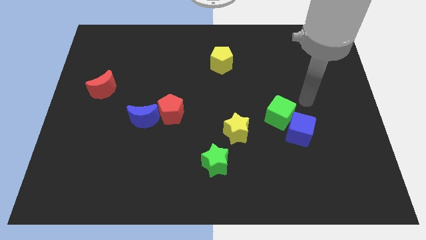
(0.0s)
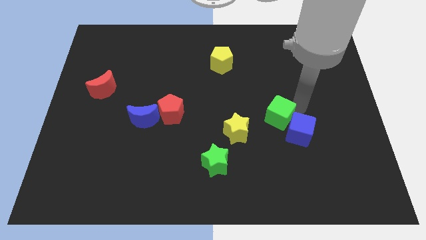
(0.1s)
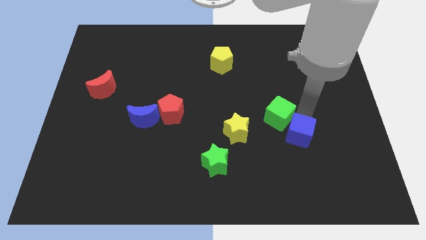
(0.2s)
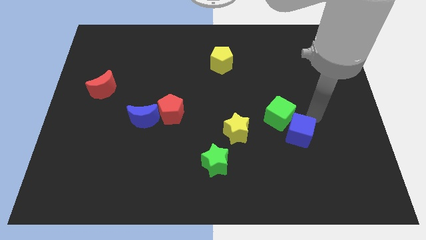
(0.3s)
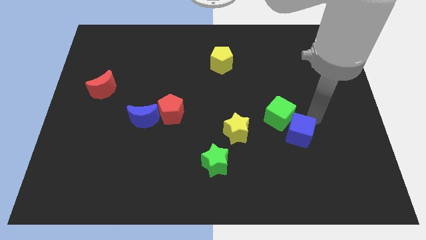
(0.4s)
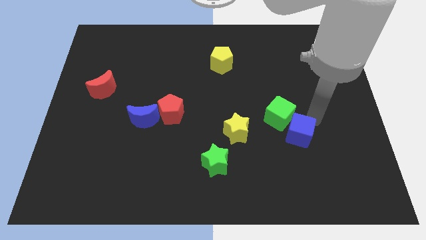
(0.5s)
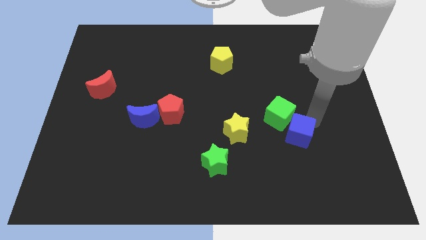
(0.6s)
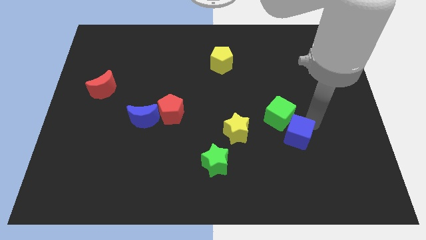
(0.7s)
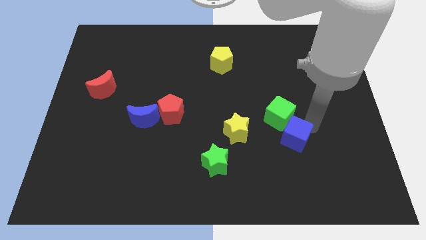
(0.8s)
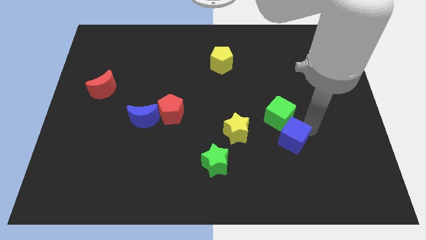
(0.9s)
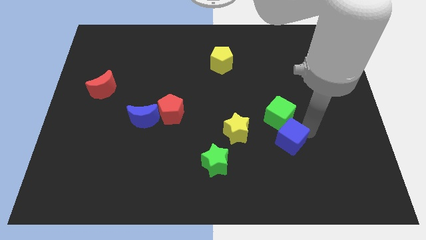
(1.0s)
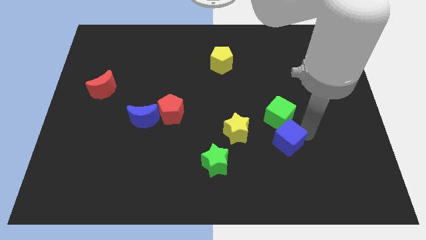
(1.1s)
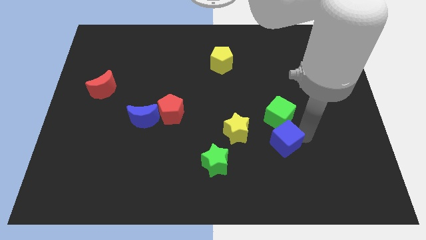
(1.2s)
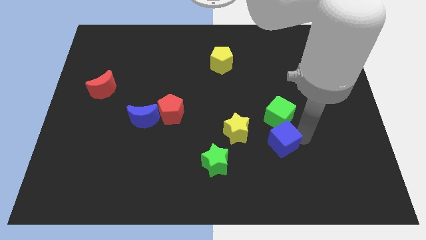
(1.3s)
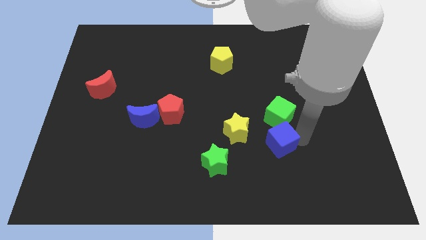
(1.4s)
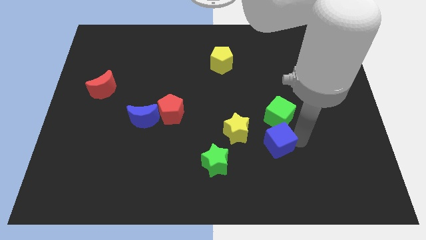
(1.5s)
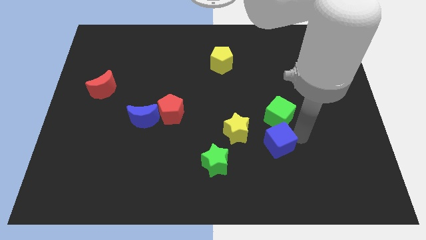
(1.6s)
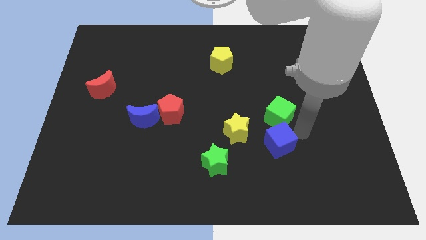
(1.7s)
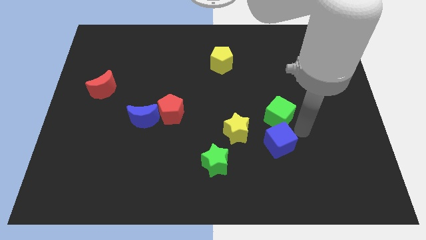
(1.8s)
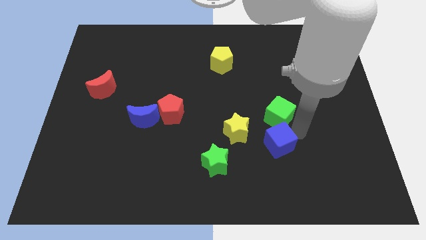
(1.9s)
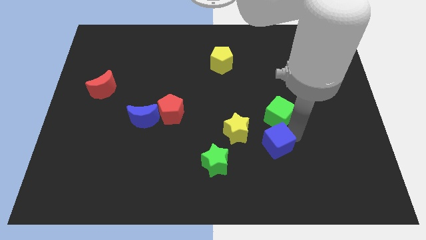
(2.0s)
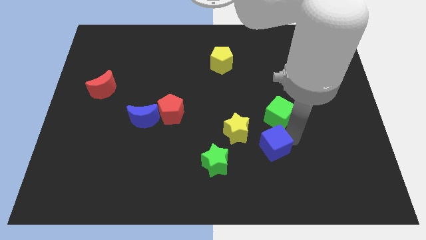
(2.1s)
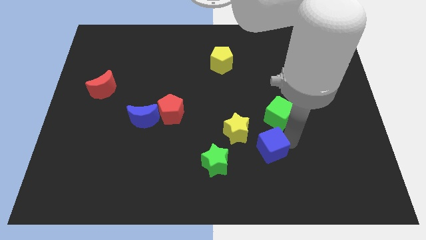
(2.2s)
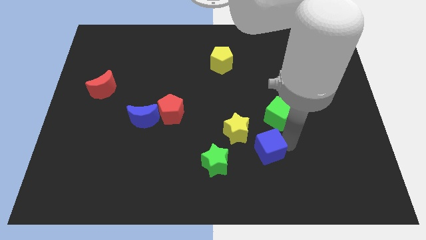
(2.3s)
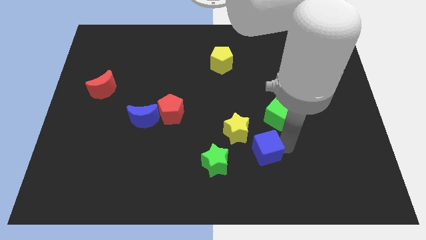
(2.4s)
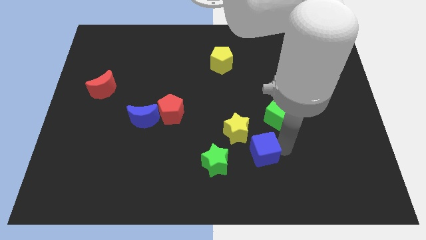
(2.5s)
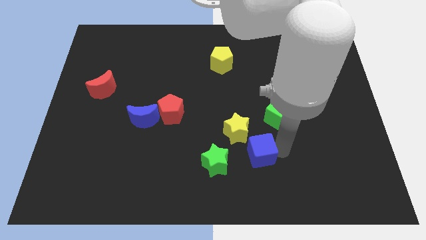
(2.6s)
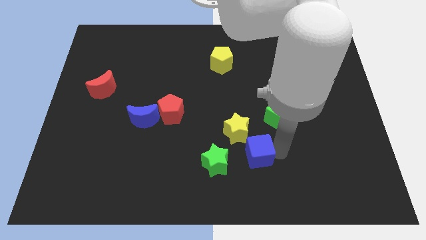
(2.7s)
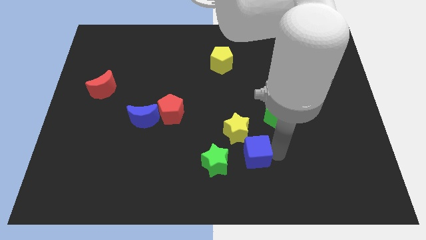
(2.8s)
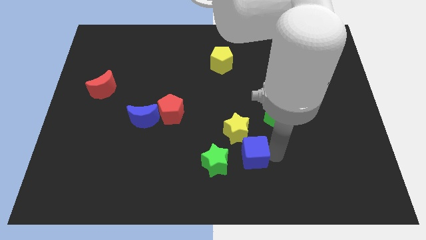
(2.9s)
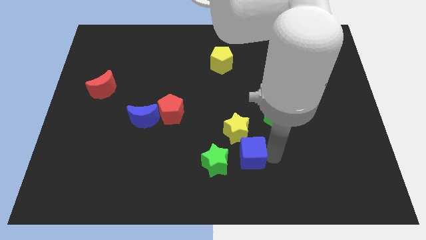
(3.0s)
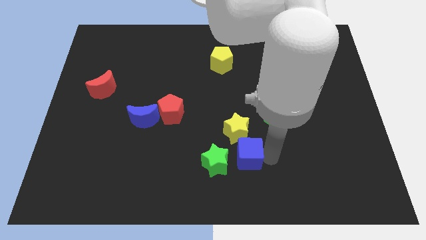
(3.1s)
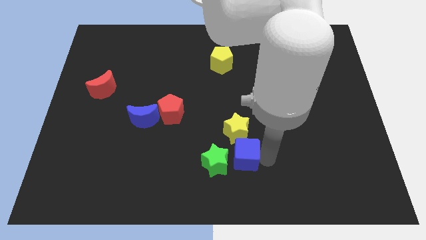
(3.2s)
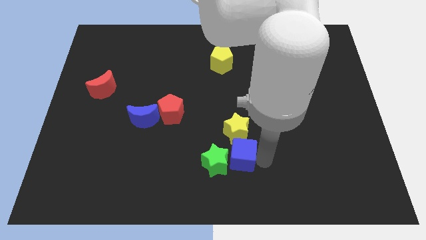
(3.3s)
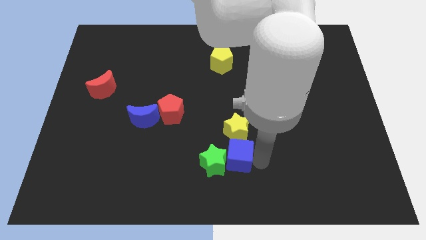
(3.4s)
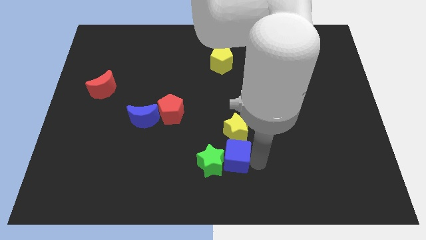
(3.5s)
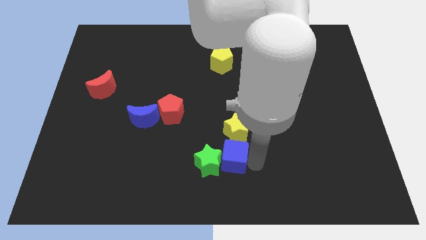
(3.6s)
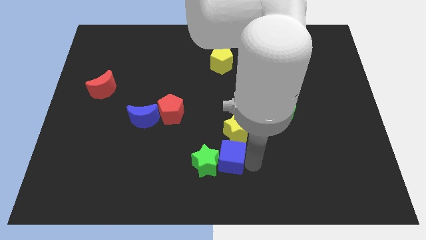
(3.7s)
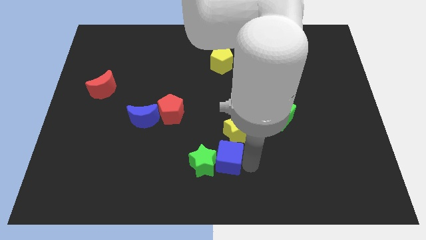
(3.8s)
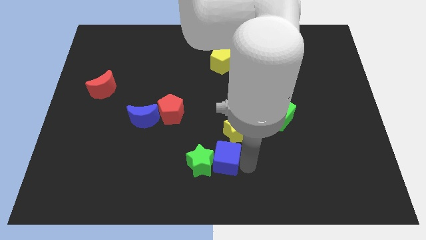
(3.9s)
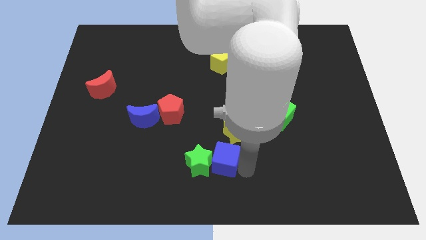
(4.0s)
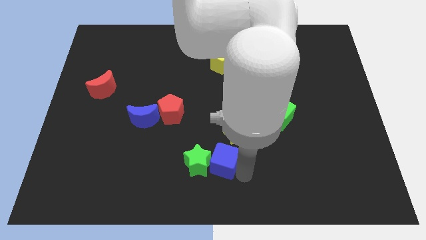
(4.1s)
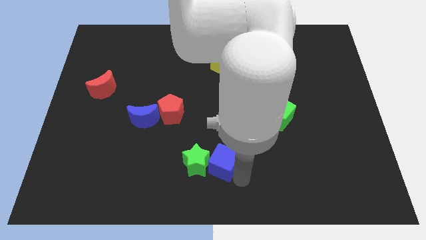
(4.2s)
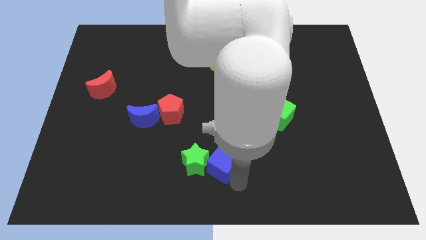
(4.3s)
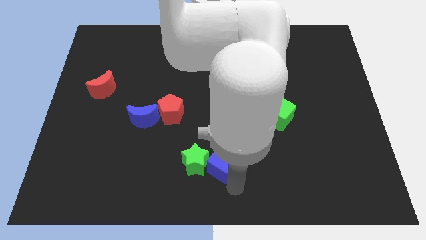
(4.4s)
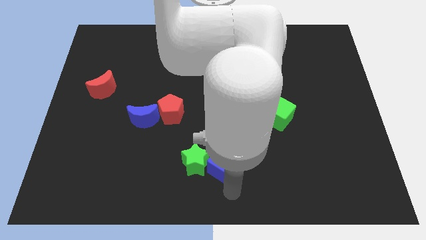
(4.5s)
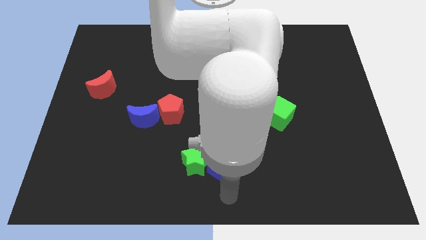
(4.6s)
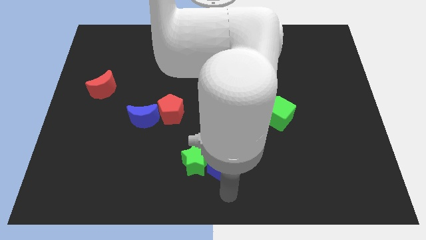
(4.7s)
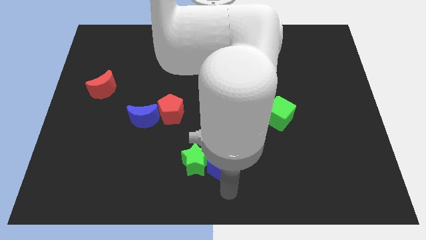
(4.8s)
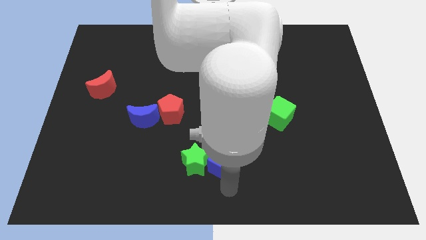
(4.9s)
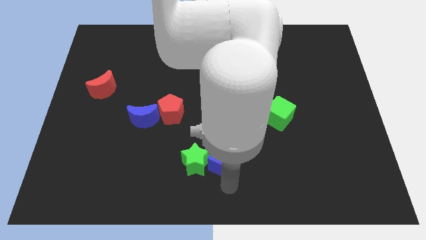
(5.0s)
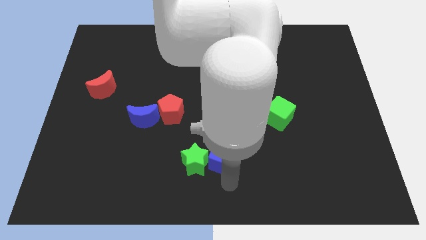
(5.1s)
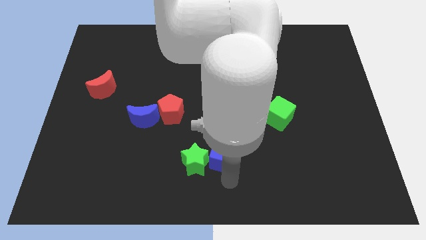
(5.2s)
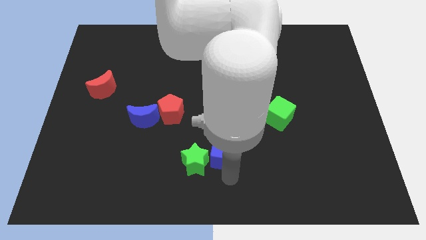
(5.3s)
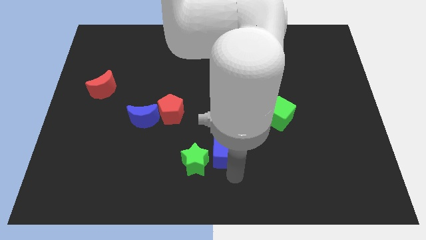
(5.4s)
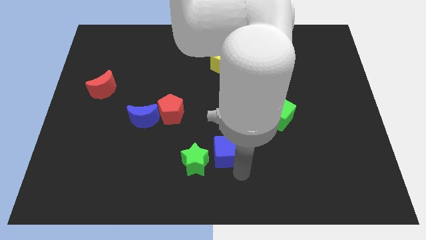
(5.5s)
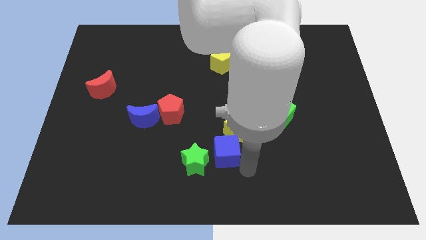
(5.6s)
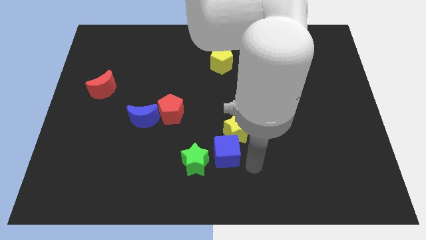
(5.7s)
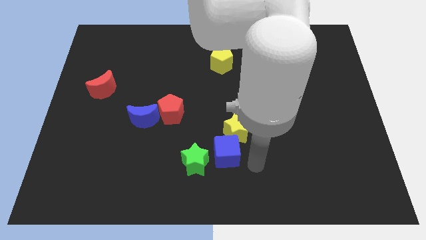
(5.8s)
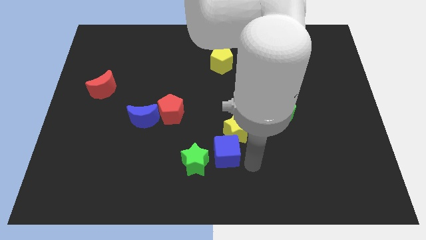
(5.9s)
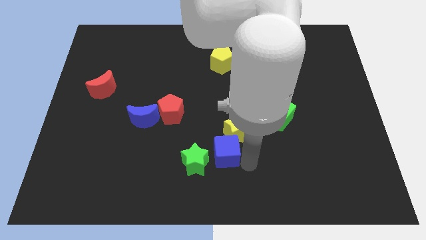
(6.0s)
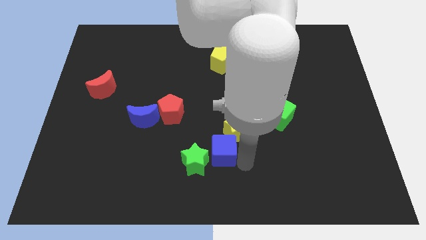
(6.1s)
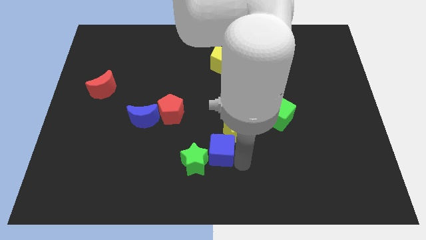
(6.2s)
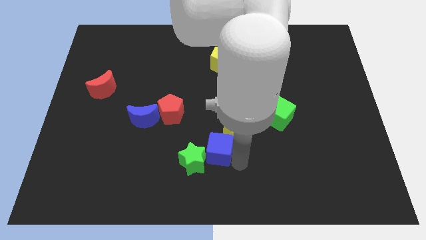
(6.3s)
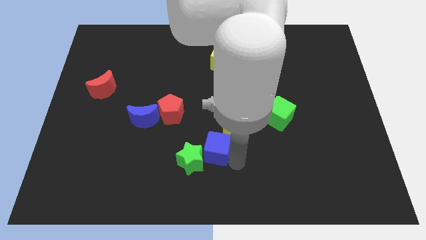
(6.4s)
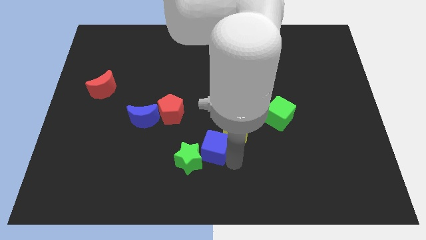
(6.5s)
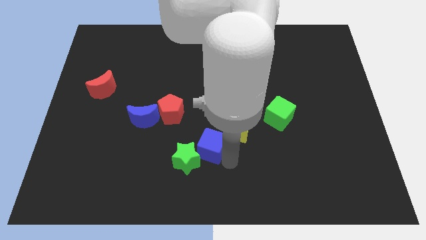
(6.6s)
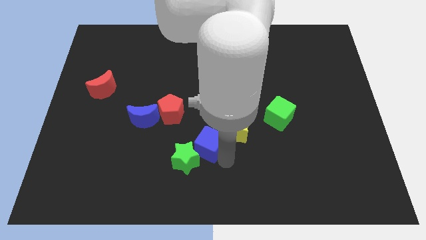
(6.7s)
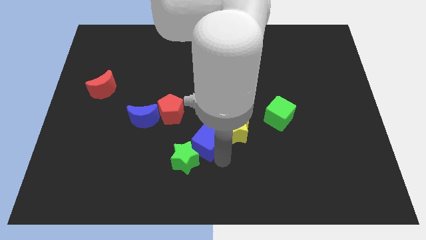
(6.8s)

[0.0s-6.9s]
slide the blue cube to the left

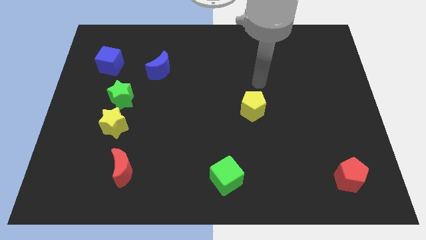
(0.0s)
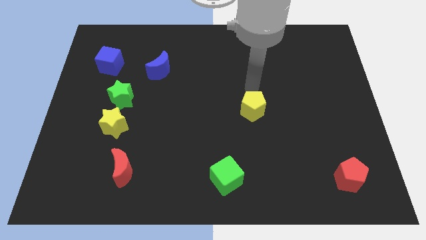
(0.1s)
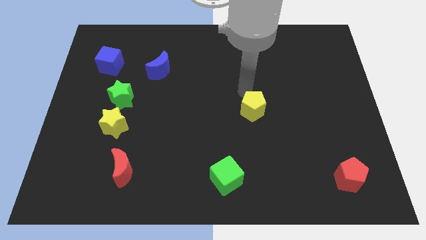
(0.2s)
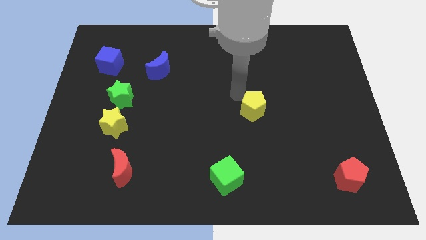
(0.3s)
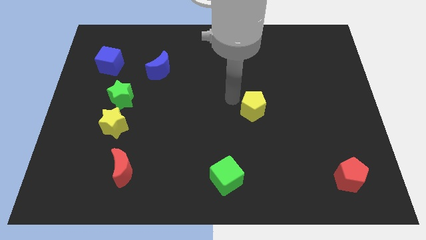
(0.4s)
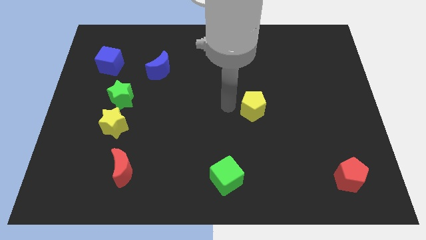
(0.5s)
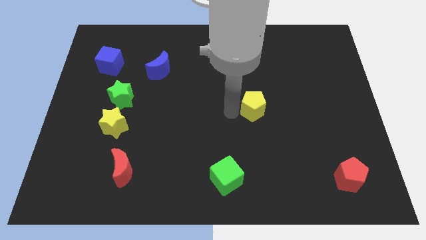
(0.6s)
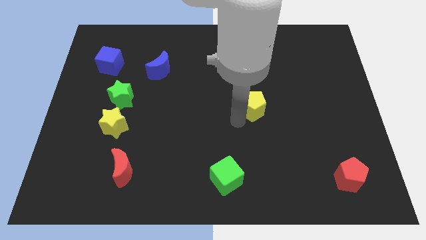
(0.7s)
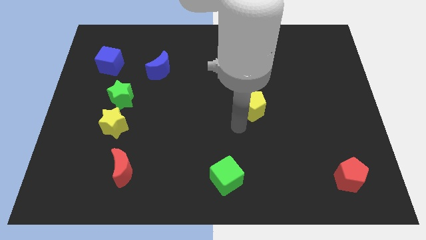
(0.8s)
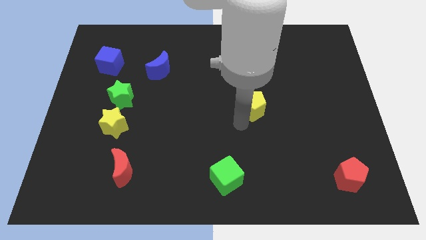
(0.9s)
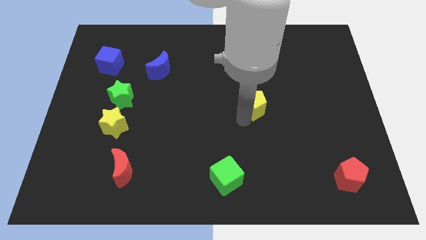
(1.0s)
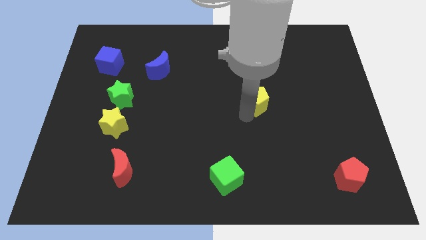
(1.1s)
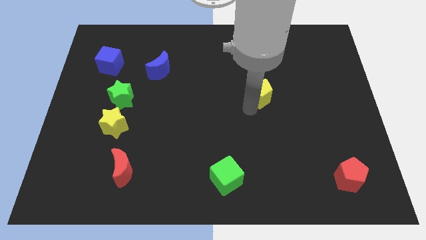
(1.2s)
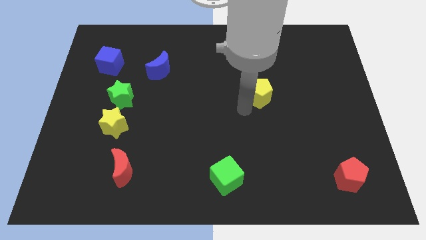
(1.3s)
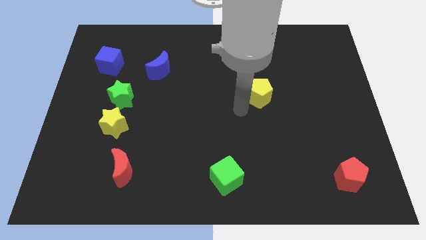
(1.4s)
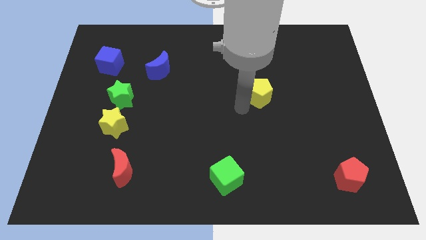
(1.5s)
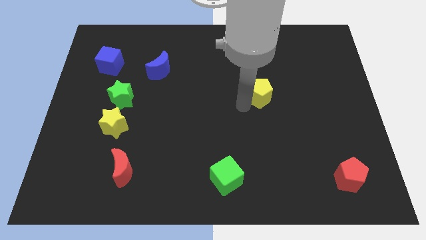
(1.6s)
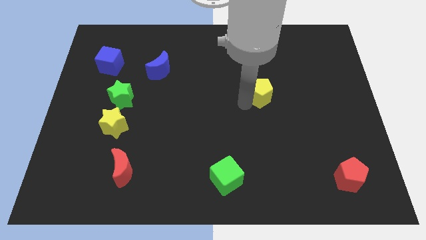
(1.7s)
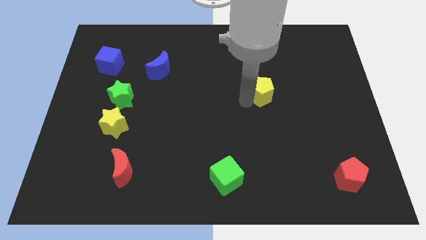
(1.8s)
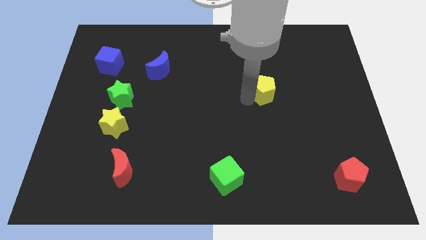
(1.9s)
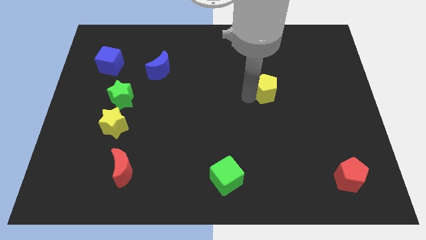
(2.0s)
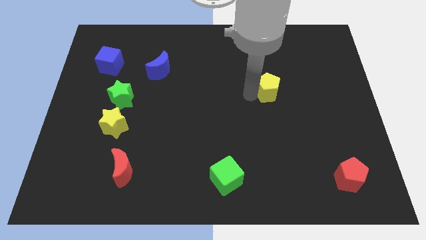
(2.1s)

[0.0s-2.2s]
slide the yellow pentagon upwards and to the right slightly
